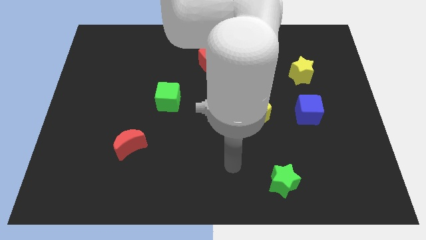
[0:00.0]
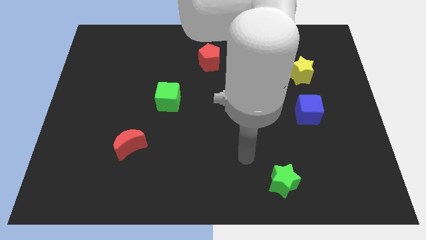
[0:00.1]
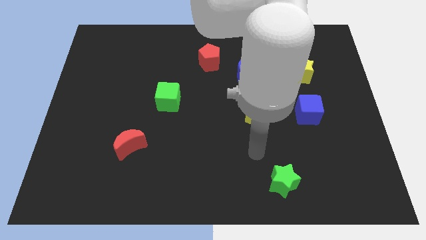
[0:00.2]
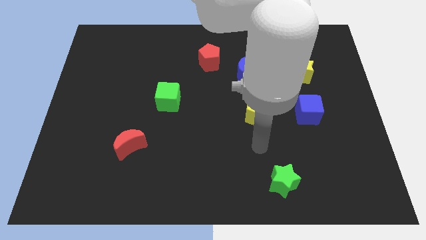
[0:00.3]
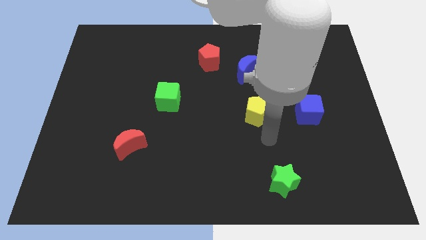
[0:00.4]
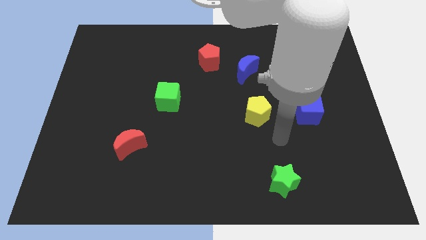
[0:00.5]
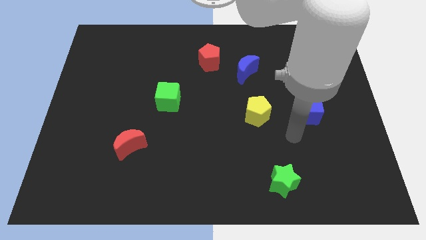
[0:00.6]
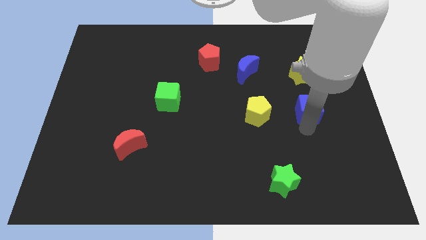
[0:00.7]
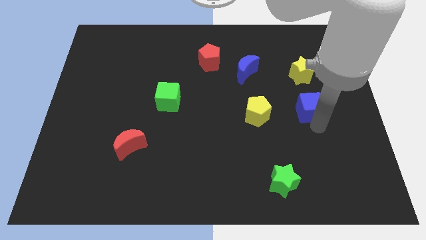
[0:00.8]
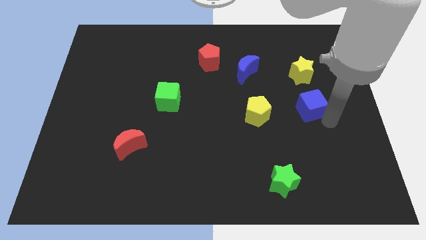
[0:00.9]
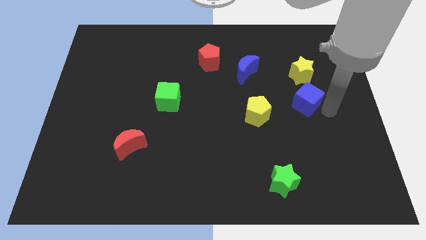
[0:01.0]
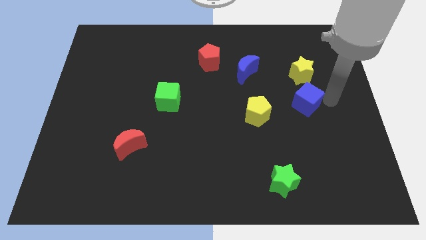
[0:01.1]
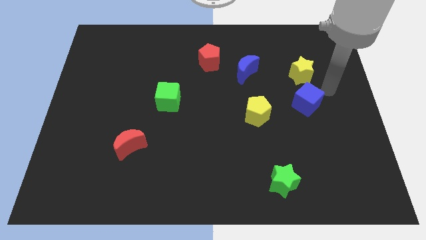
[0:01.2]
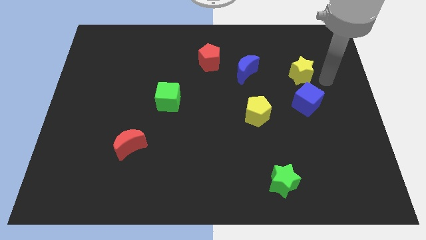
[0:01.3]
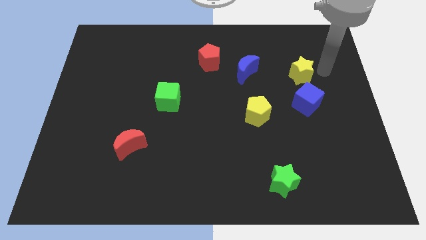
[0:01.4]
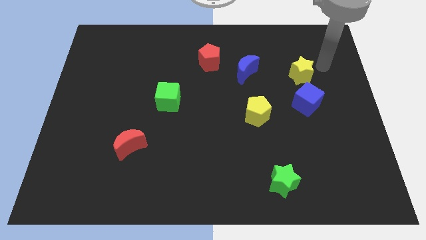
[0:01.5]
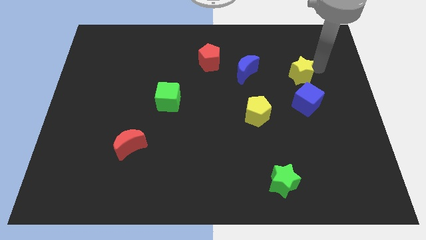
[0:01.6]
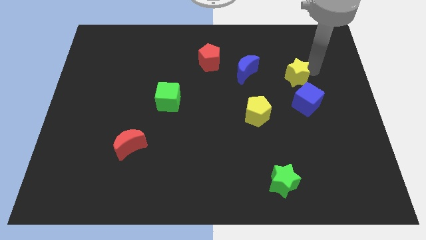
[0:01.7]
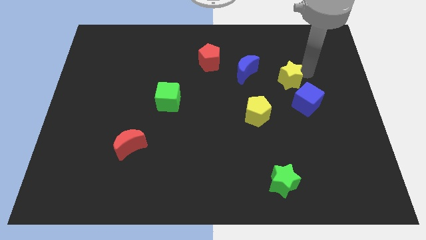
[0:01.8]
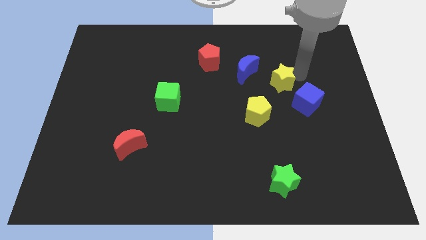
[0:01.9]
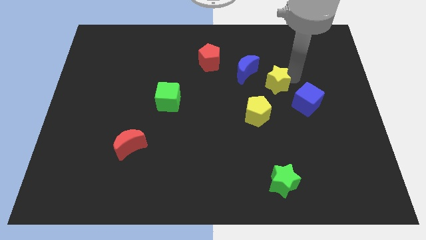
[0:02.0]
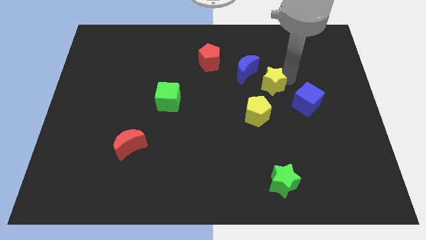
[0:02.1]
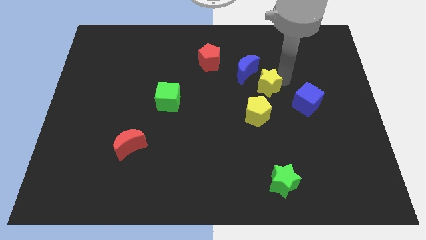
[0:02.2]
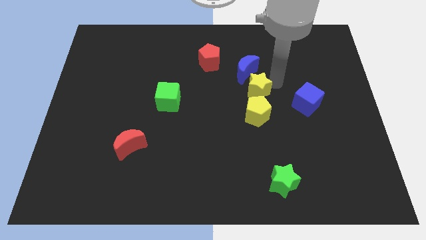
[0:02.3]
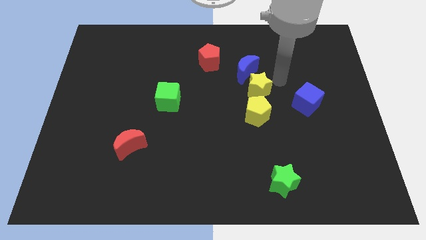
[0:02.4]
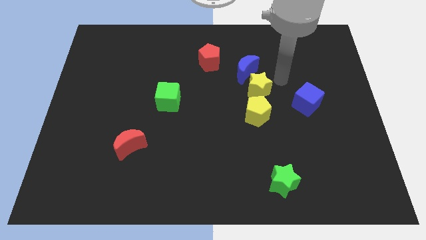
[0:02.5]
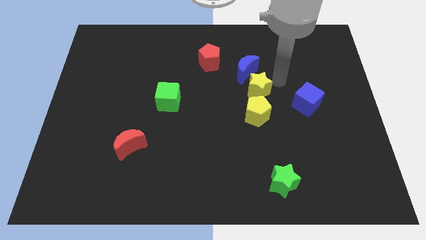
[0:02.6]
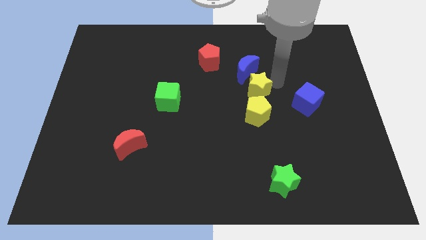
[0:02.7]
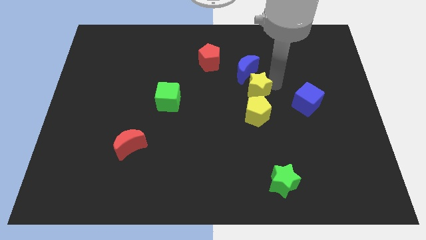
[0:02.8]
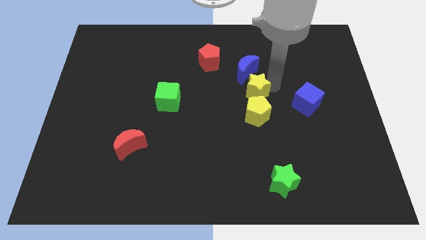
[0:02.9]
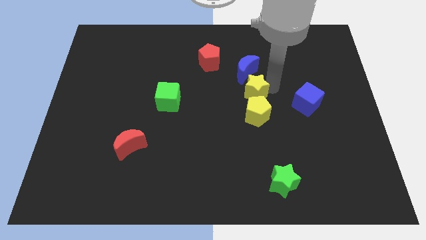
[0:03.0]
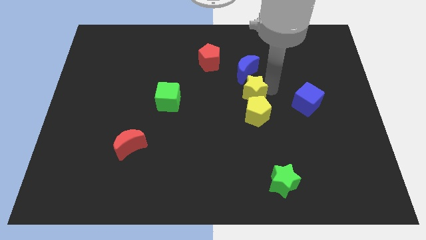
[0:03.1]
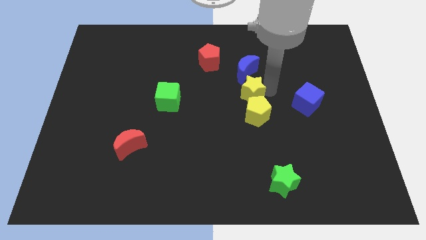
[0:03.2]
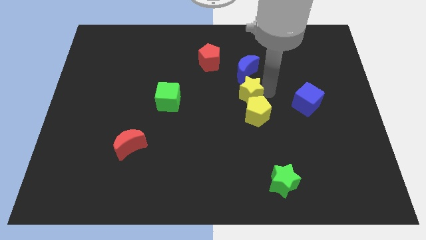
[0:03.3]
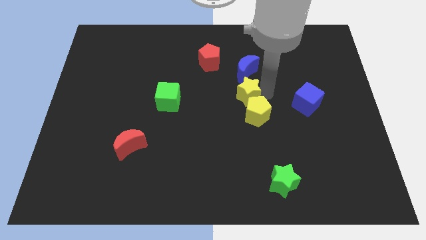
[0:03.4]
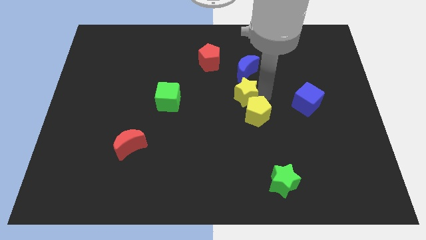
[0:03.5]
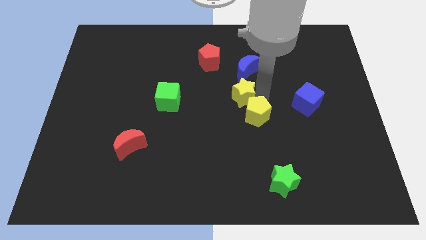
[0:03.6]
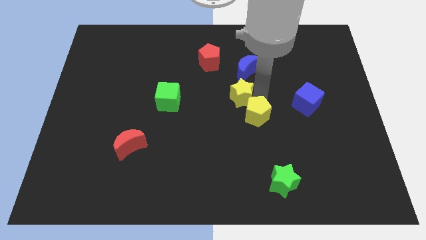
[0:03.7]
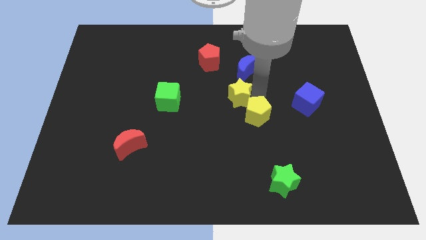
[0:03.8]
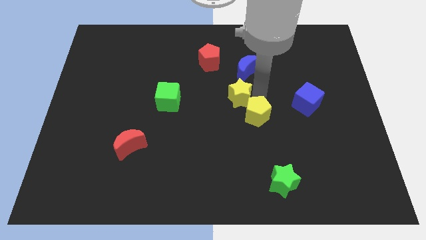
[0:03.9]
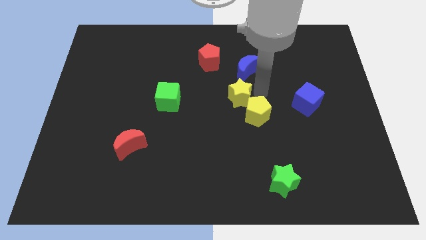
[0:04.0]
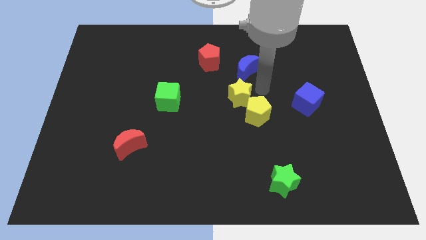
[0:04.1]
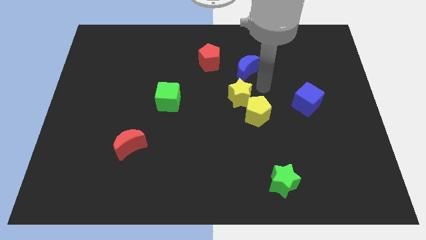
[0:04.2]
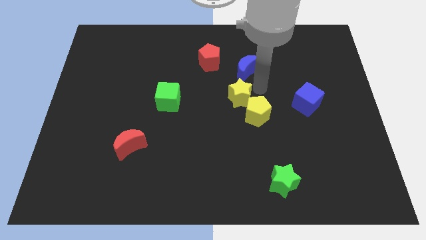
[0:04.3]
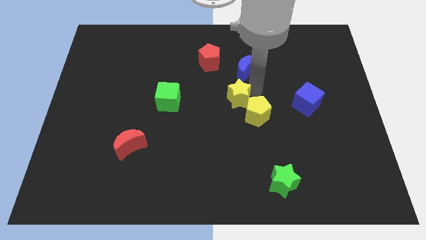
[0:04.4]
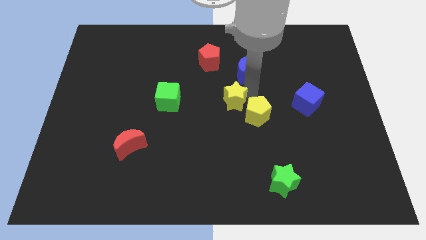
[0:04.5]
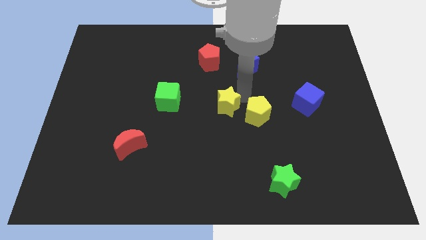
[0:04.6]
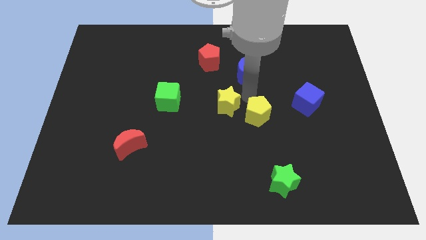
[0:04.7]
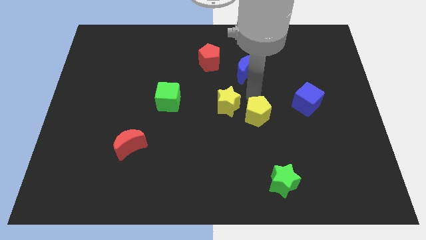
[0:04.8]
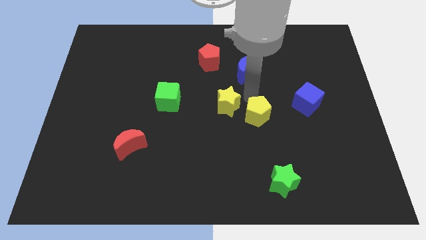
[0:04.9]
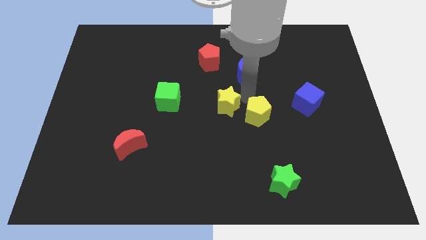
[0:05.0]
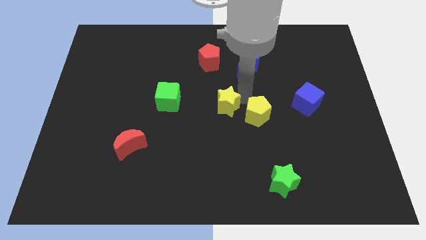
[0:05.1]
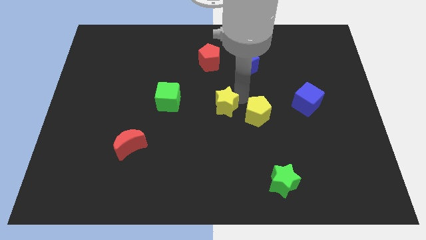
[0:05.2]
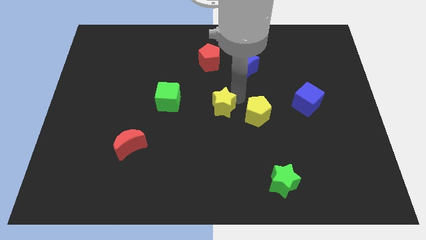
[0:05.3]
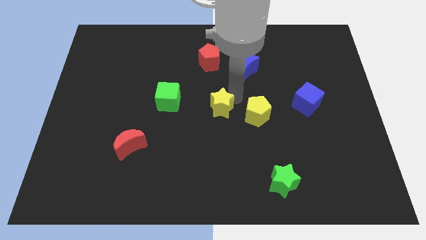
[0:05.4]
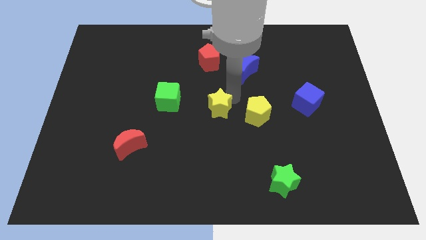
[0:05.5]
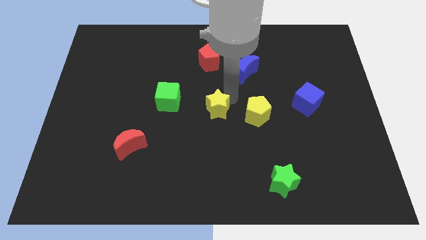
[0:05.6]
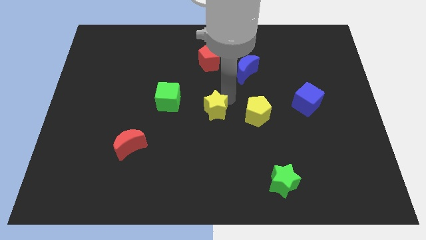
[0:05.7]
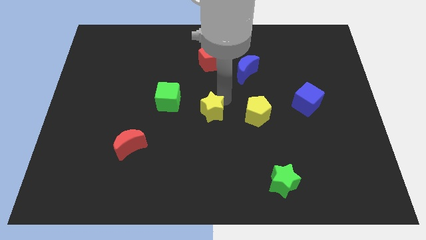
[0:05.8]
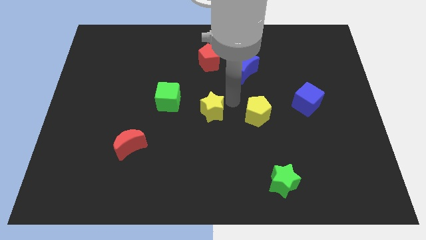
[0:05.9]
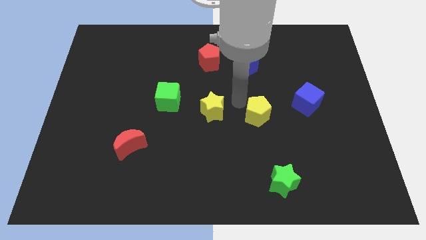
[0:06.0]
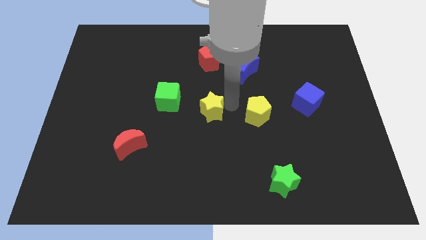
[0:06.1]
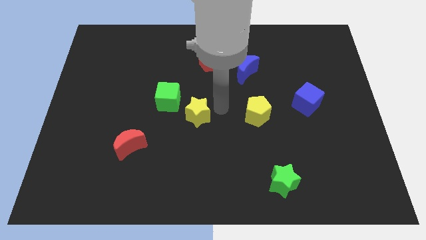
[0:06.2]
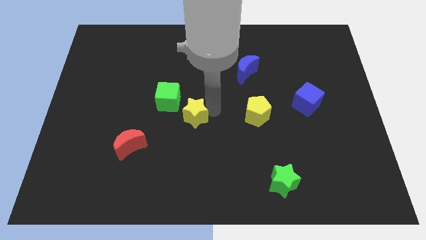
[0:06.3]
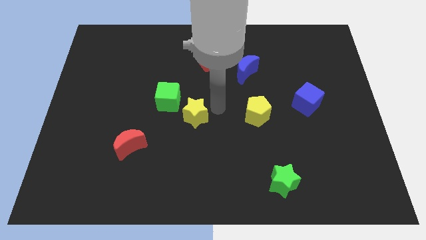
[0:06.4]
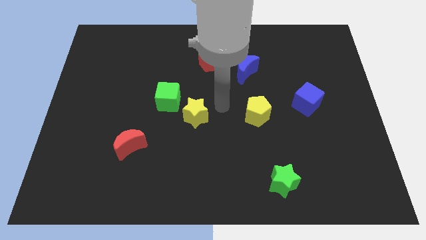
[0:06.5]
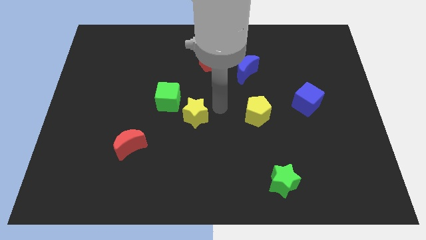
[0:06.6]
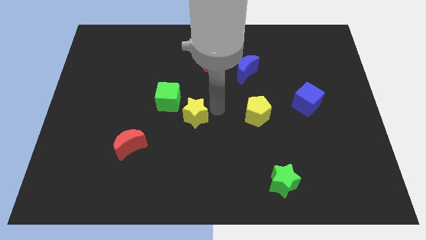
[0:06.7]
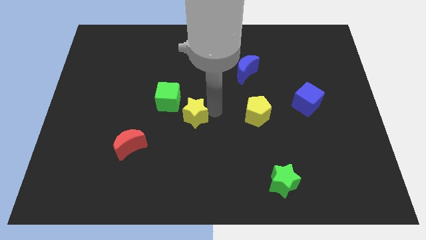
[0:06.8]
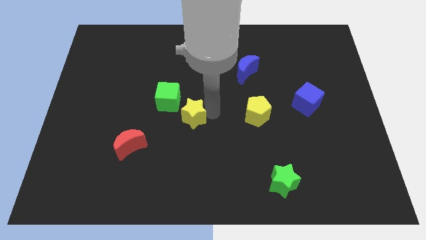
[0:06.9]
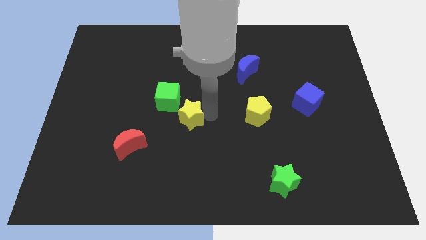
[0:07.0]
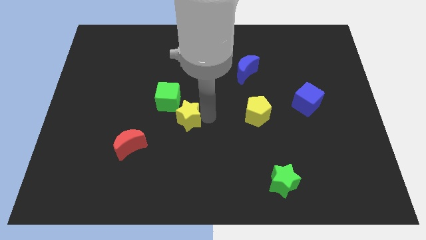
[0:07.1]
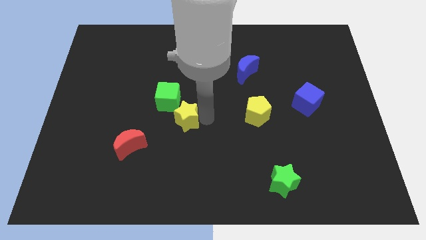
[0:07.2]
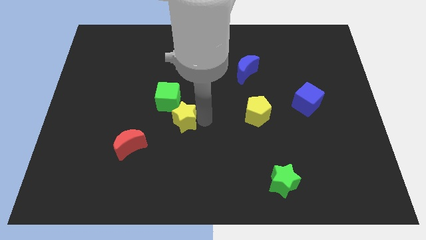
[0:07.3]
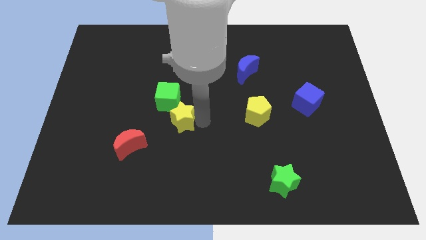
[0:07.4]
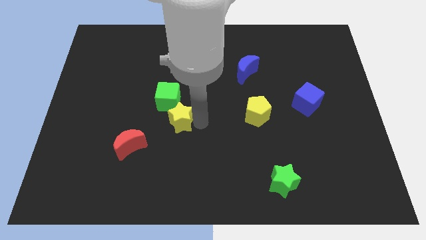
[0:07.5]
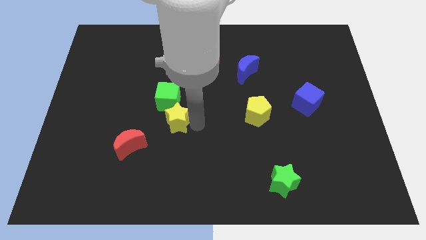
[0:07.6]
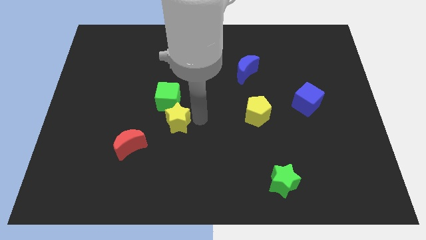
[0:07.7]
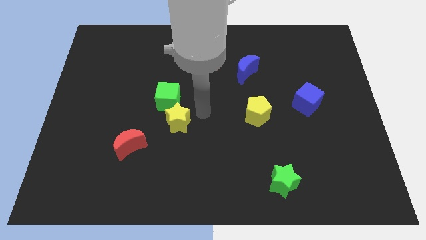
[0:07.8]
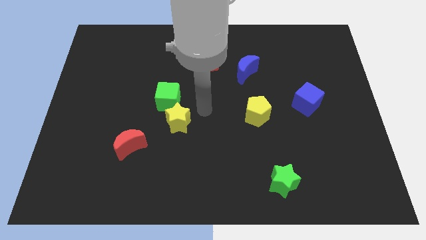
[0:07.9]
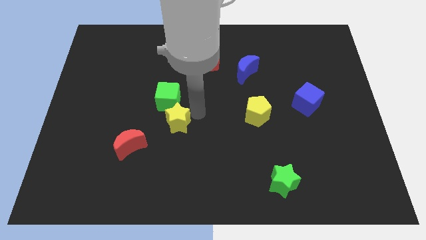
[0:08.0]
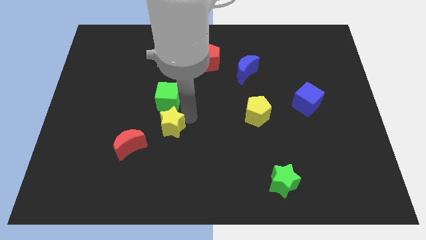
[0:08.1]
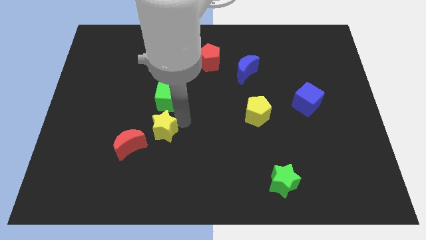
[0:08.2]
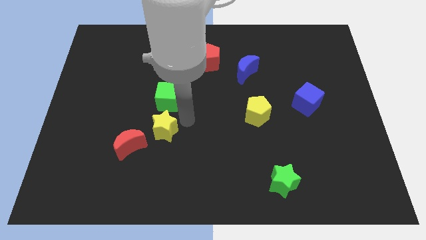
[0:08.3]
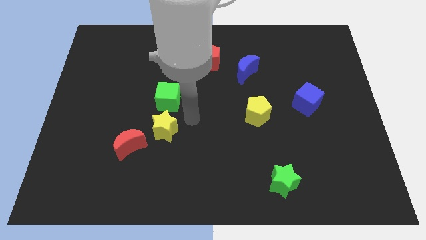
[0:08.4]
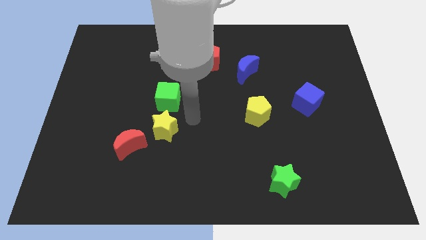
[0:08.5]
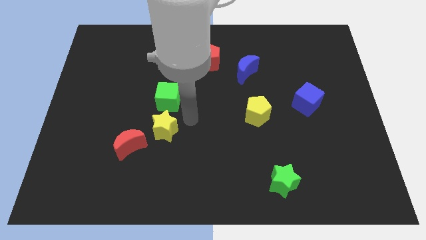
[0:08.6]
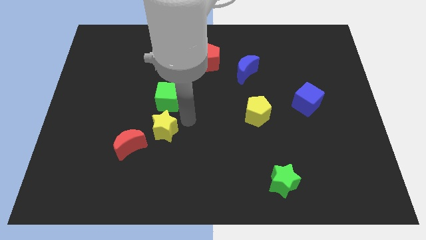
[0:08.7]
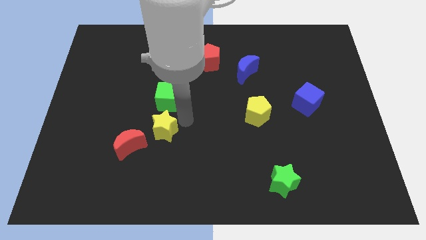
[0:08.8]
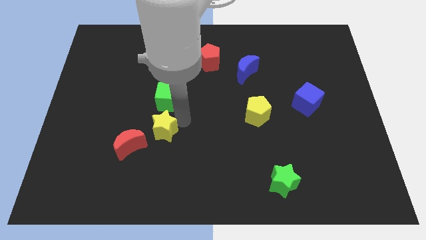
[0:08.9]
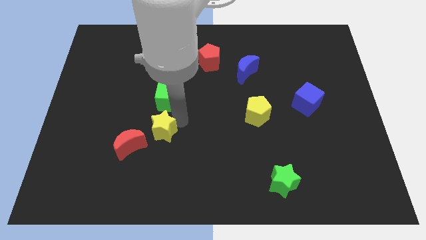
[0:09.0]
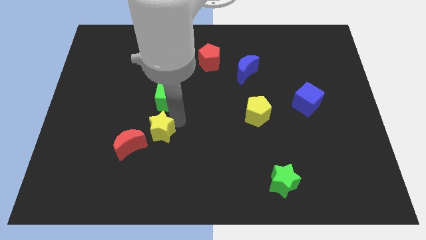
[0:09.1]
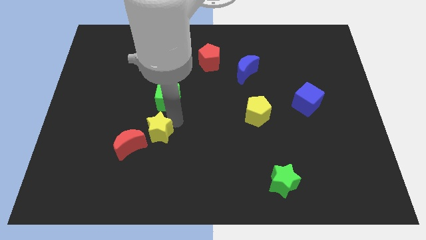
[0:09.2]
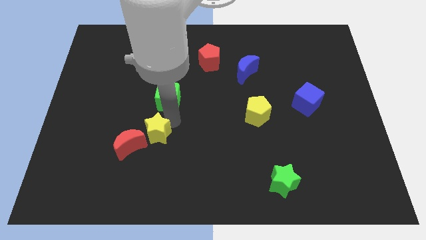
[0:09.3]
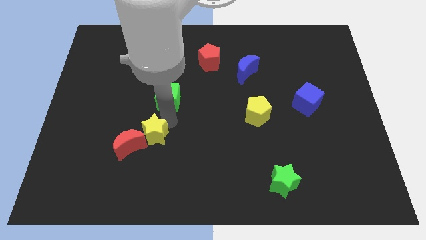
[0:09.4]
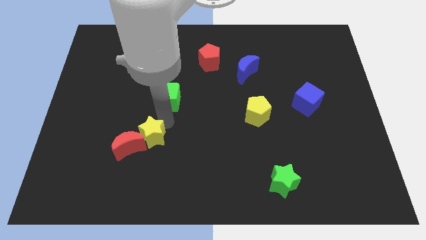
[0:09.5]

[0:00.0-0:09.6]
move the yellow star close to the red moon
